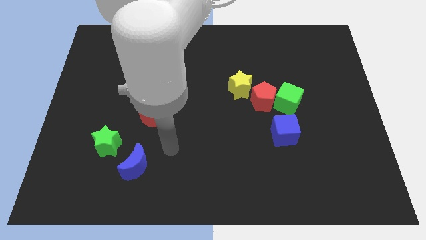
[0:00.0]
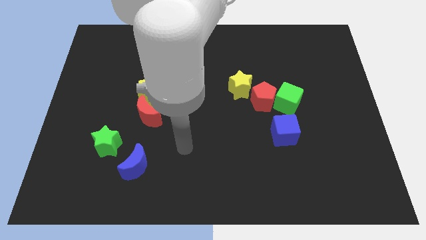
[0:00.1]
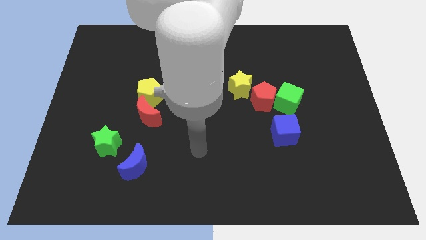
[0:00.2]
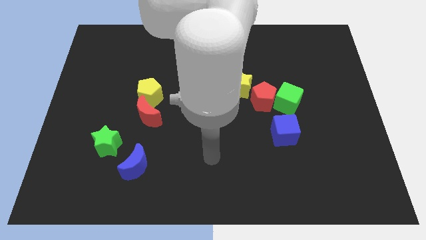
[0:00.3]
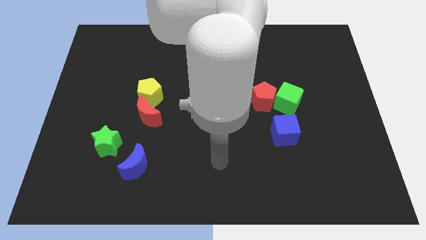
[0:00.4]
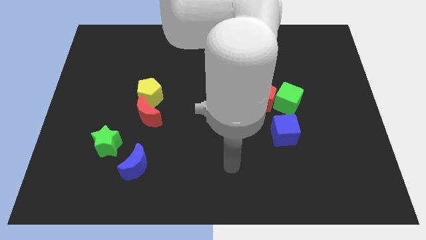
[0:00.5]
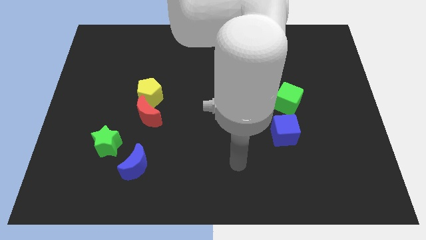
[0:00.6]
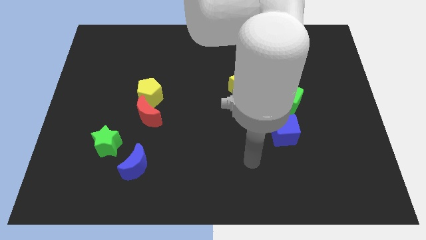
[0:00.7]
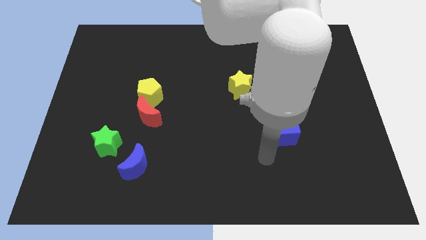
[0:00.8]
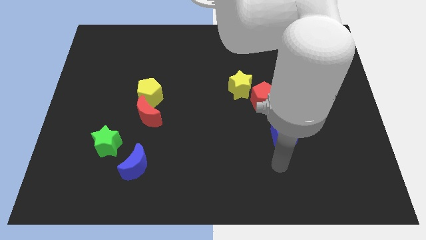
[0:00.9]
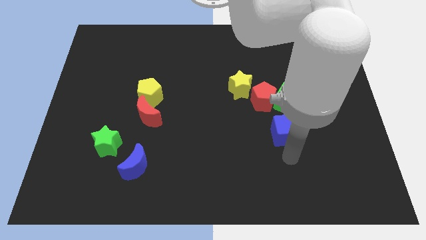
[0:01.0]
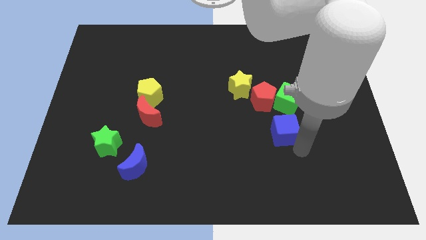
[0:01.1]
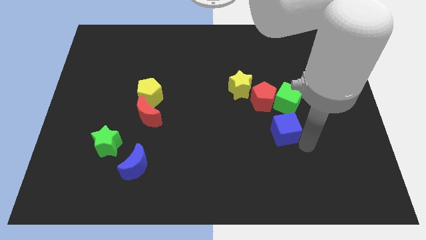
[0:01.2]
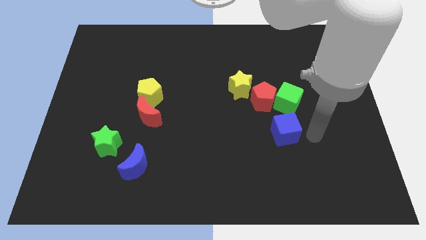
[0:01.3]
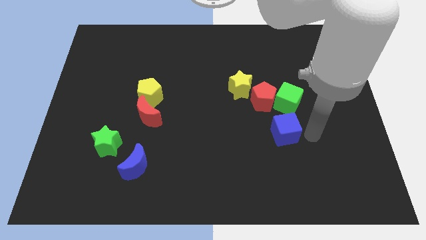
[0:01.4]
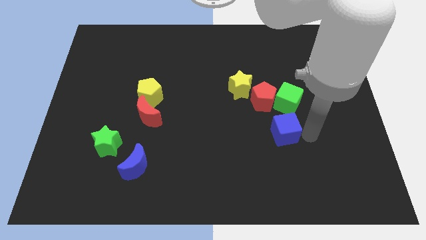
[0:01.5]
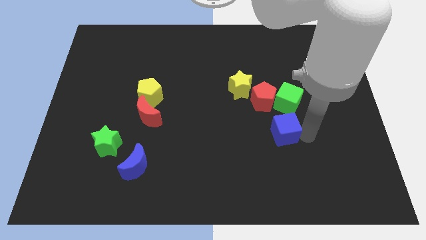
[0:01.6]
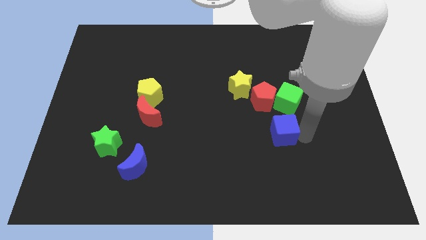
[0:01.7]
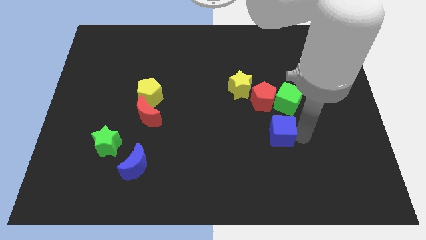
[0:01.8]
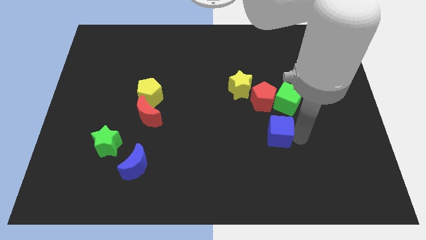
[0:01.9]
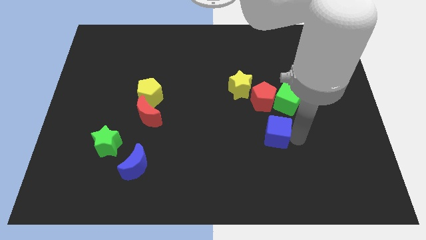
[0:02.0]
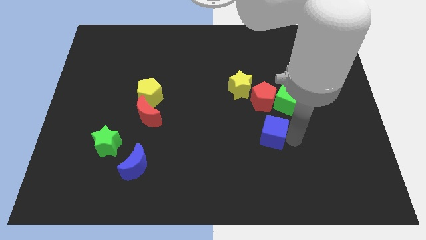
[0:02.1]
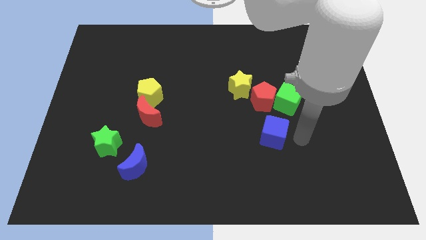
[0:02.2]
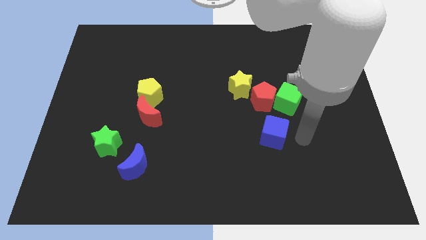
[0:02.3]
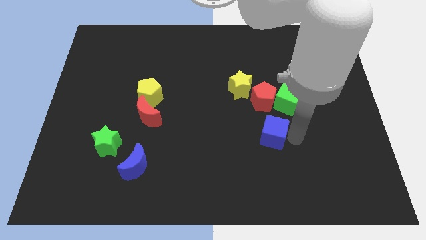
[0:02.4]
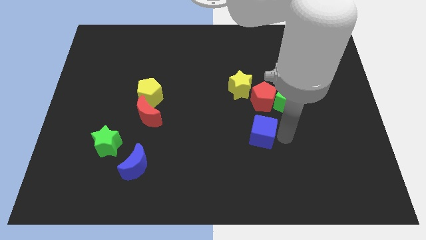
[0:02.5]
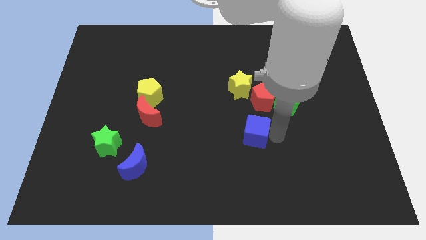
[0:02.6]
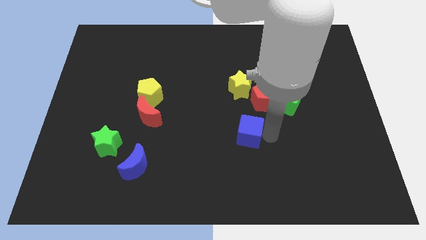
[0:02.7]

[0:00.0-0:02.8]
slightly slide the blue cube left

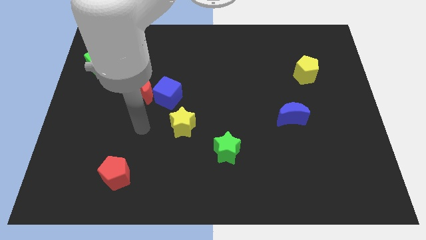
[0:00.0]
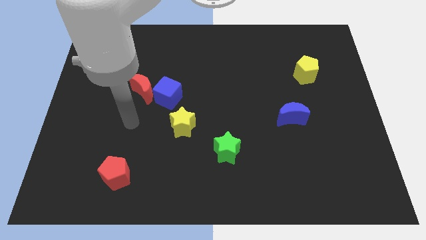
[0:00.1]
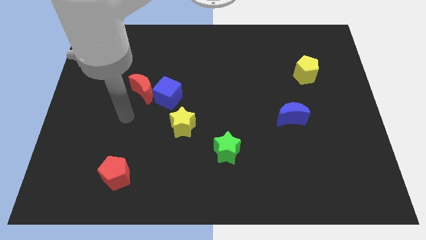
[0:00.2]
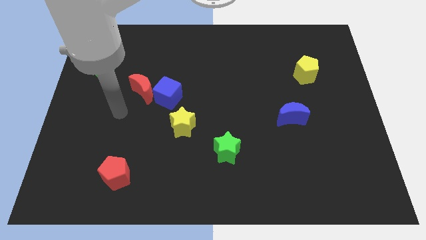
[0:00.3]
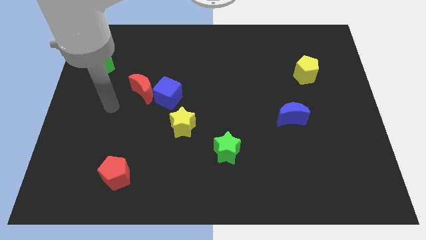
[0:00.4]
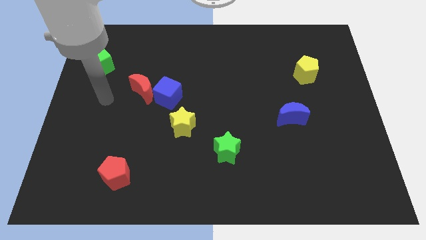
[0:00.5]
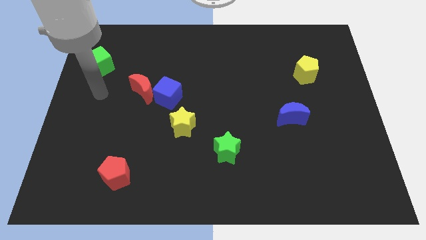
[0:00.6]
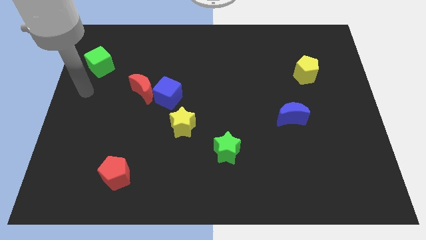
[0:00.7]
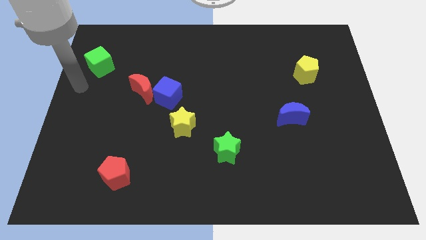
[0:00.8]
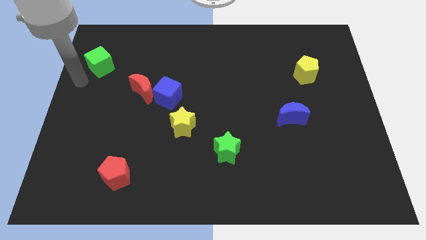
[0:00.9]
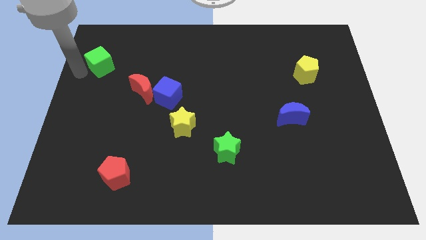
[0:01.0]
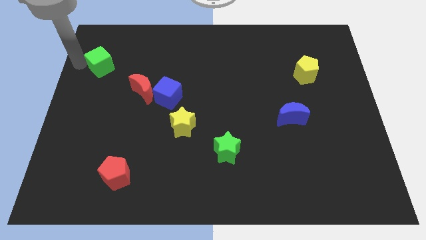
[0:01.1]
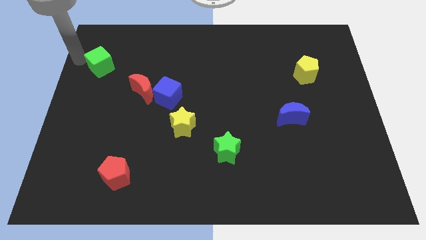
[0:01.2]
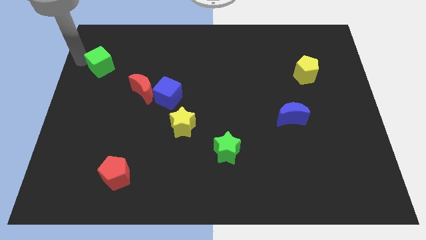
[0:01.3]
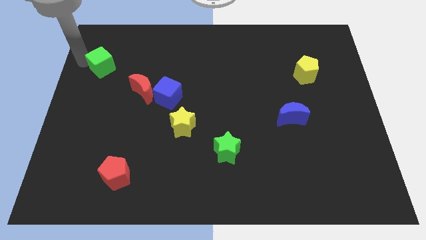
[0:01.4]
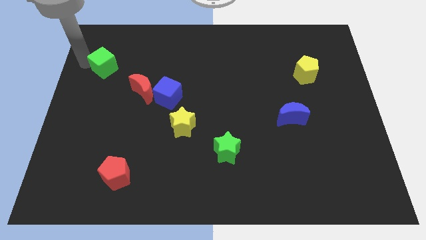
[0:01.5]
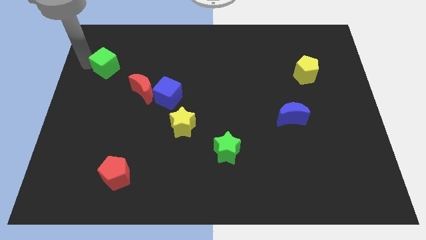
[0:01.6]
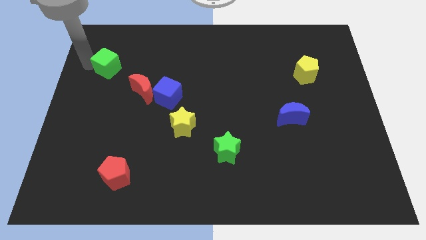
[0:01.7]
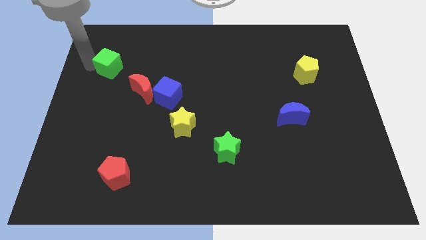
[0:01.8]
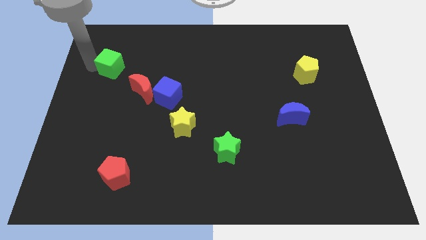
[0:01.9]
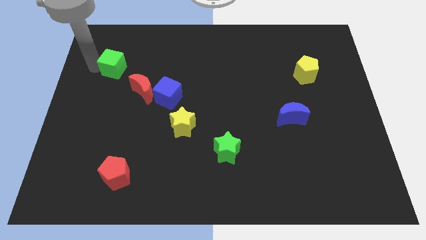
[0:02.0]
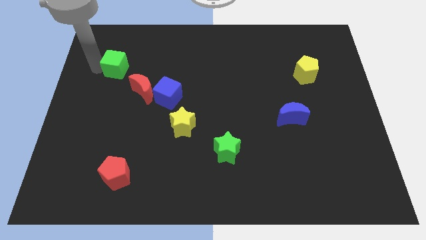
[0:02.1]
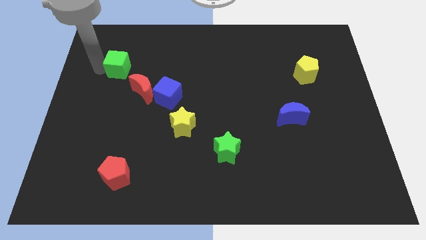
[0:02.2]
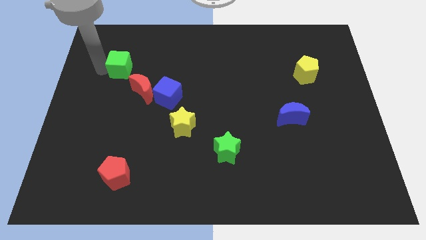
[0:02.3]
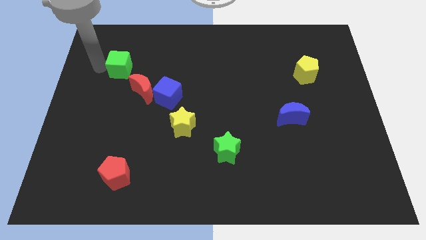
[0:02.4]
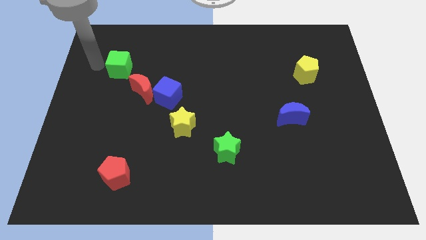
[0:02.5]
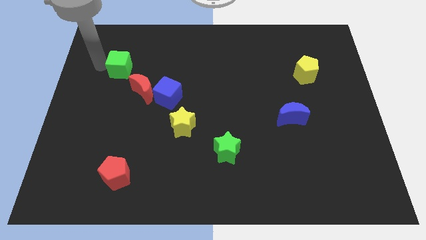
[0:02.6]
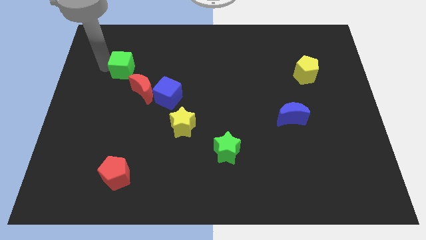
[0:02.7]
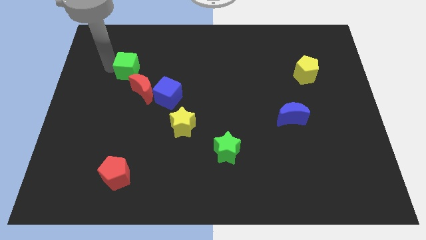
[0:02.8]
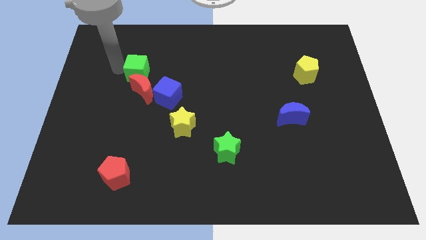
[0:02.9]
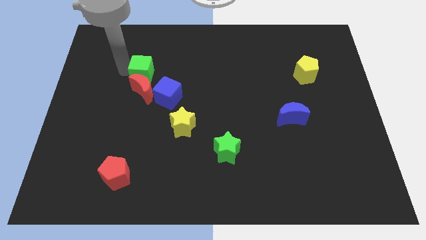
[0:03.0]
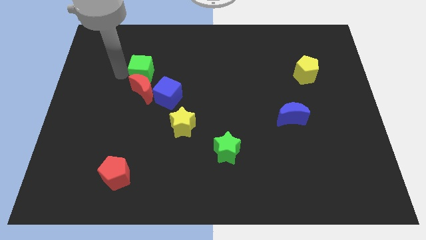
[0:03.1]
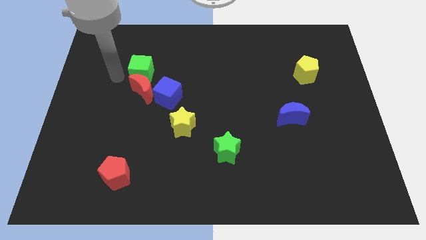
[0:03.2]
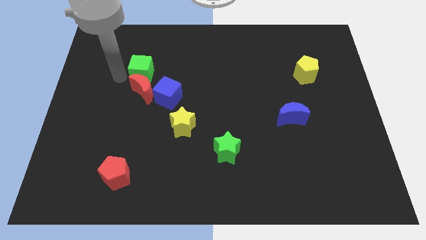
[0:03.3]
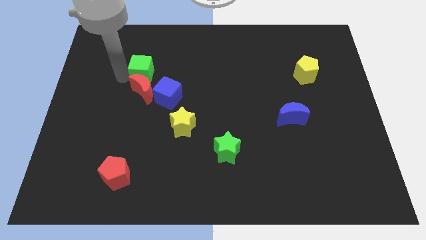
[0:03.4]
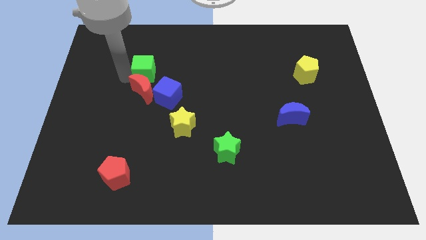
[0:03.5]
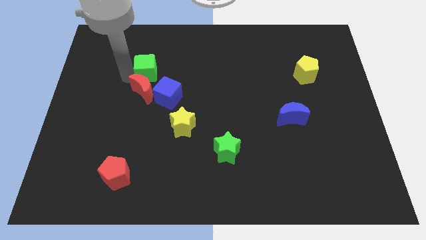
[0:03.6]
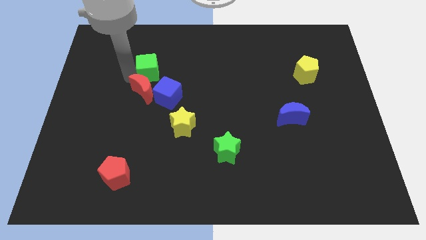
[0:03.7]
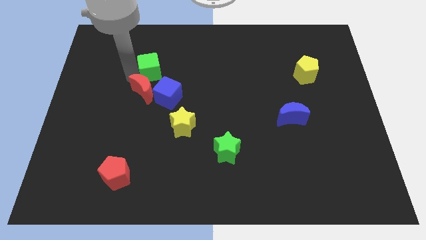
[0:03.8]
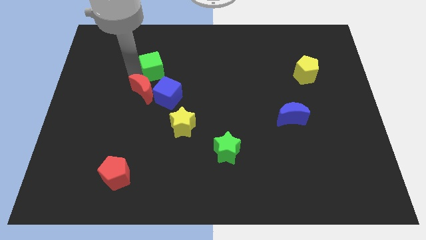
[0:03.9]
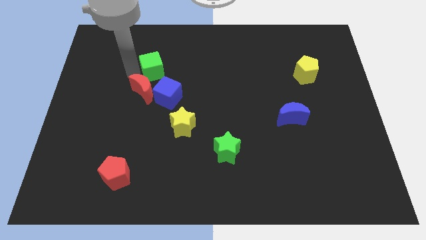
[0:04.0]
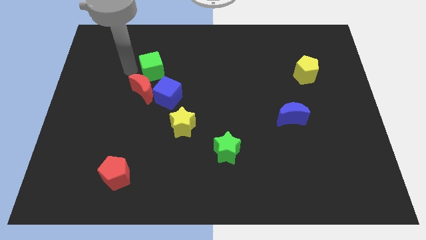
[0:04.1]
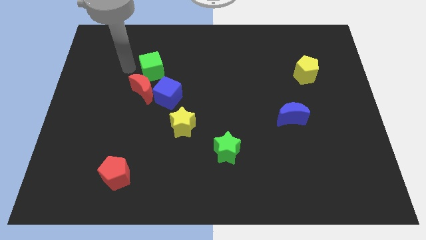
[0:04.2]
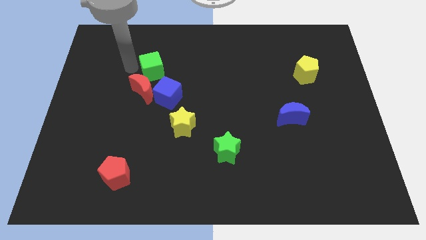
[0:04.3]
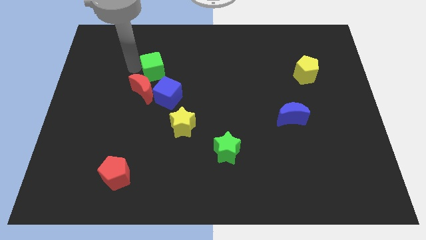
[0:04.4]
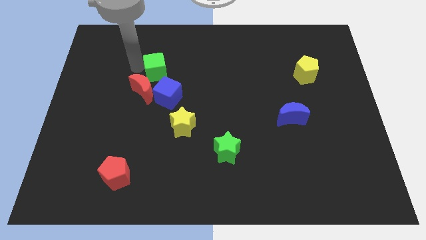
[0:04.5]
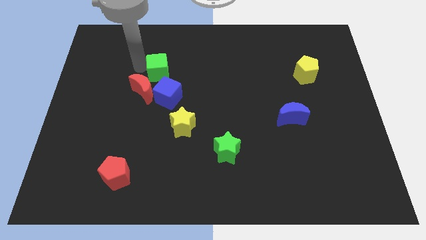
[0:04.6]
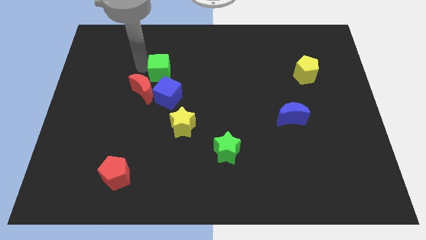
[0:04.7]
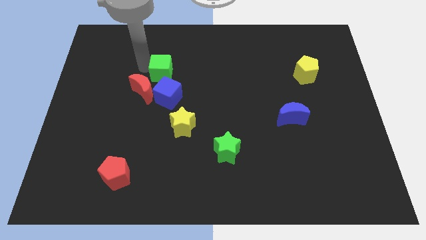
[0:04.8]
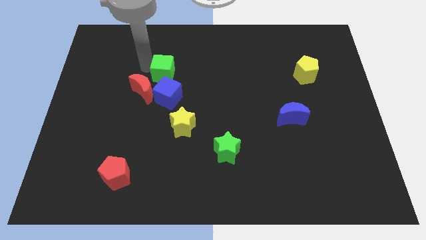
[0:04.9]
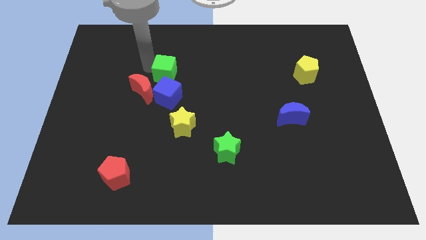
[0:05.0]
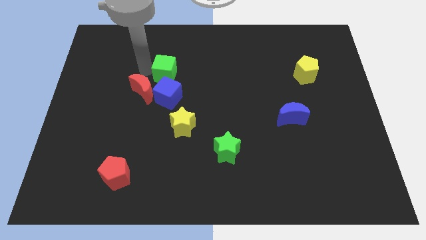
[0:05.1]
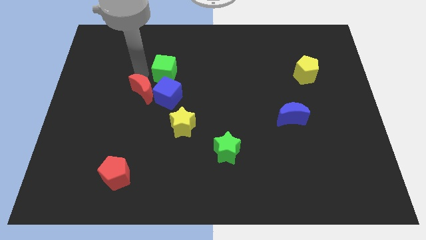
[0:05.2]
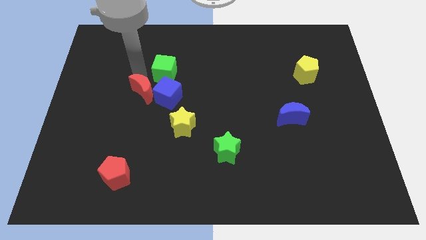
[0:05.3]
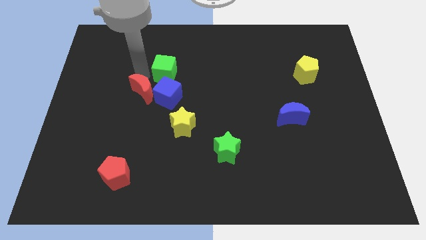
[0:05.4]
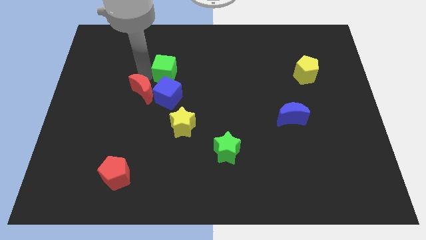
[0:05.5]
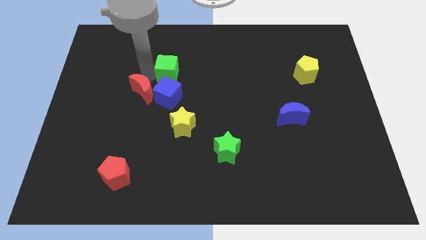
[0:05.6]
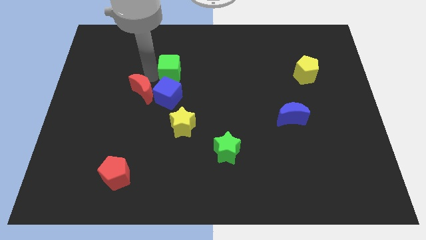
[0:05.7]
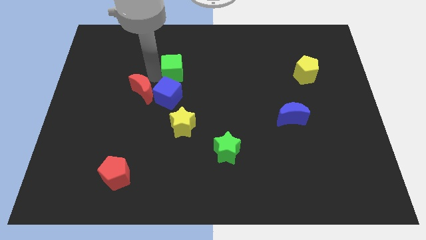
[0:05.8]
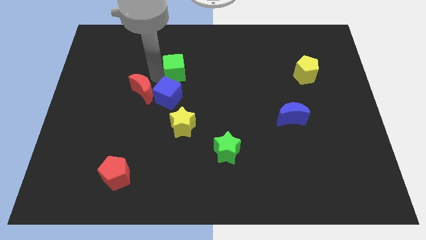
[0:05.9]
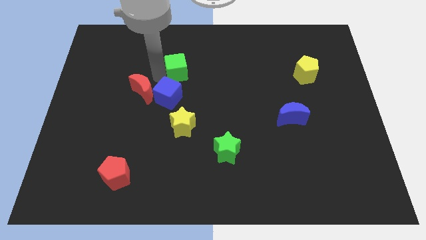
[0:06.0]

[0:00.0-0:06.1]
push the green cube to the right
